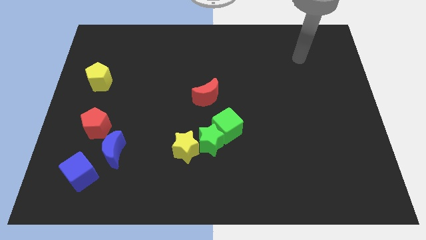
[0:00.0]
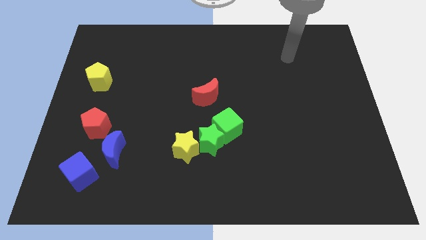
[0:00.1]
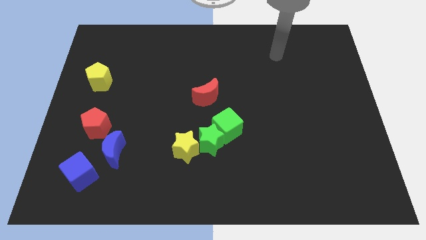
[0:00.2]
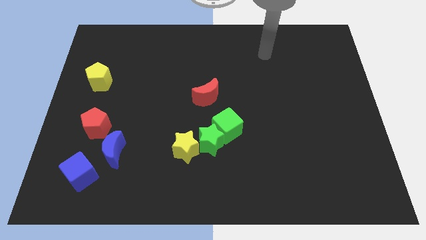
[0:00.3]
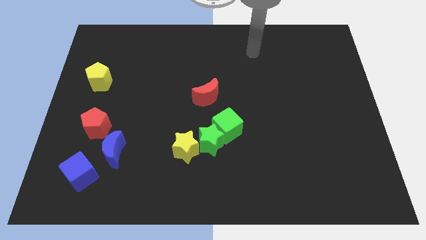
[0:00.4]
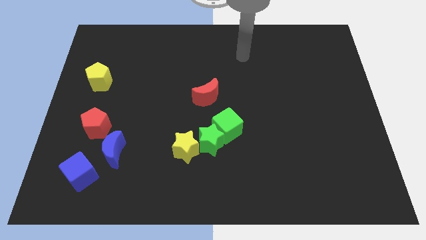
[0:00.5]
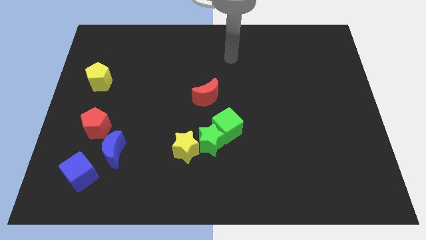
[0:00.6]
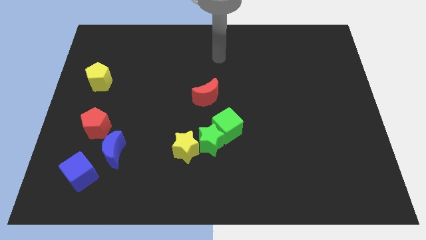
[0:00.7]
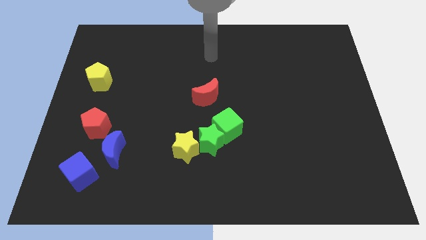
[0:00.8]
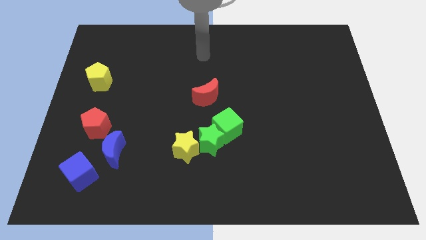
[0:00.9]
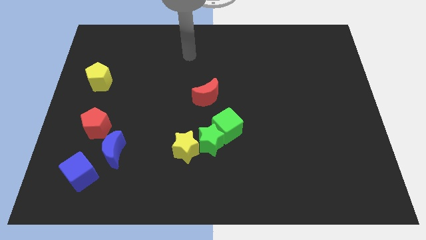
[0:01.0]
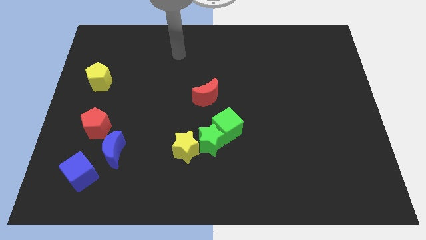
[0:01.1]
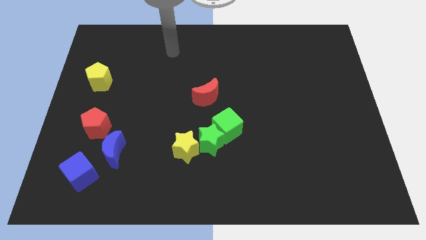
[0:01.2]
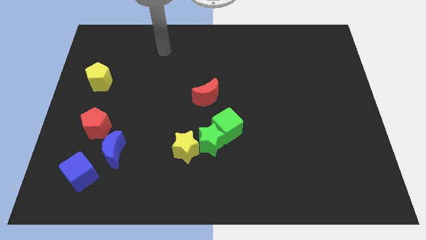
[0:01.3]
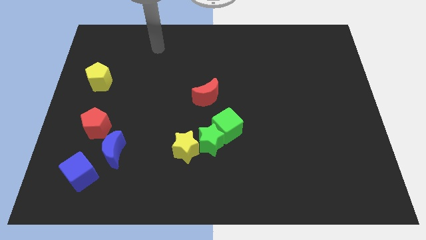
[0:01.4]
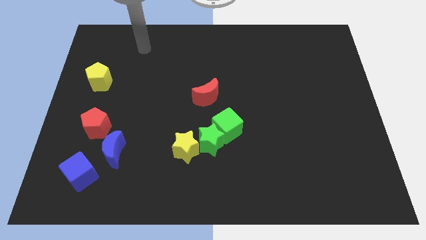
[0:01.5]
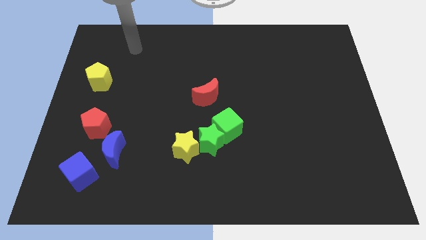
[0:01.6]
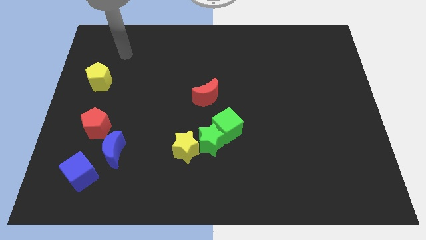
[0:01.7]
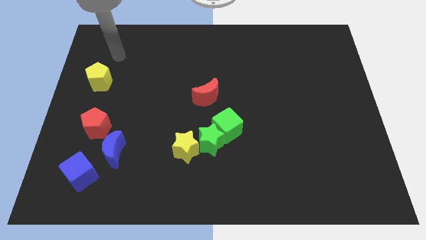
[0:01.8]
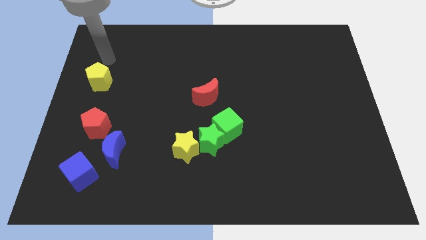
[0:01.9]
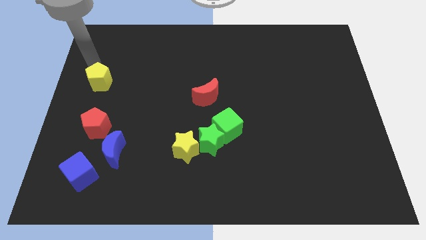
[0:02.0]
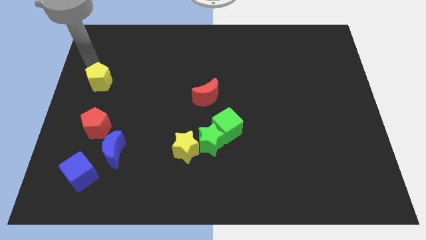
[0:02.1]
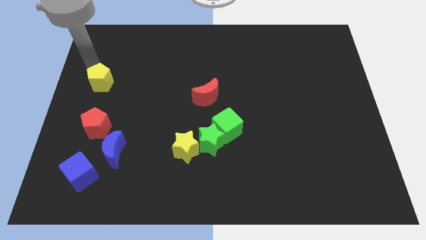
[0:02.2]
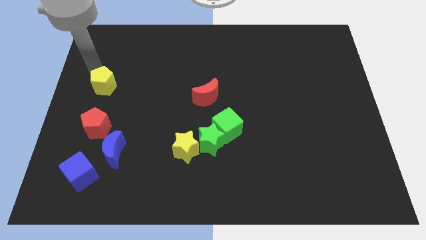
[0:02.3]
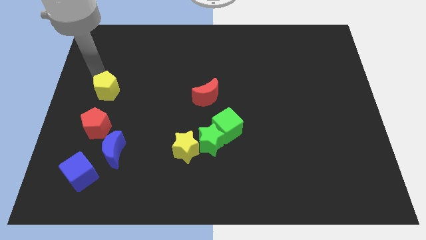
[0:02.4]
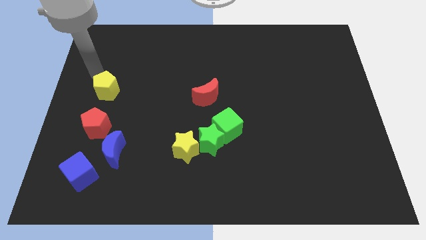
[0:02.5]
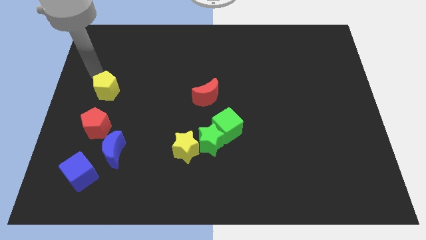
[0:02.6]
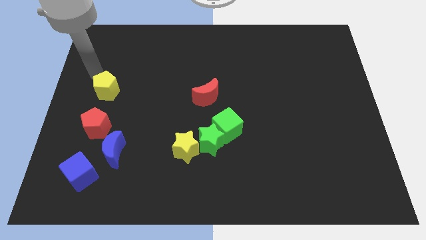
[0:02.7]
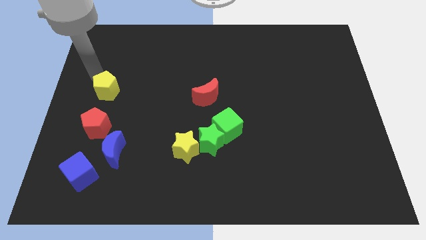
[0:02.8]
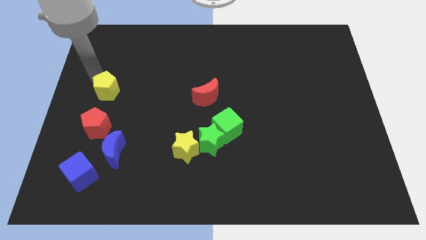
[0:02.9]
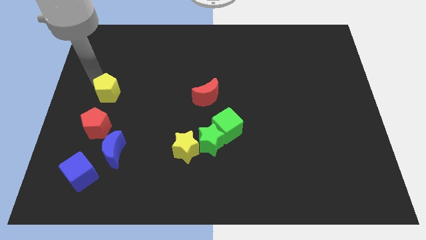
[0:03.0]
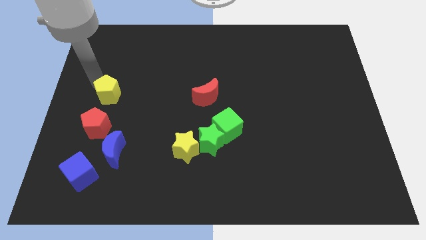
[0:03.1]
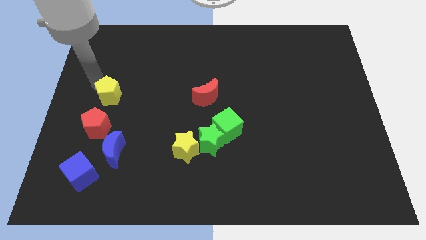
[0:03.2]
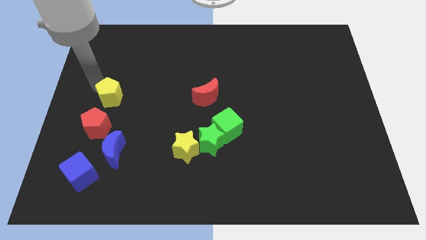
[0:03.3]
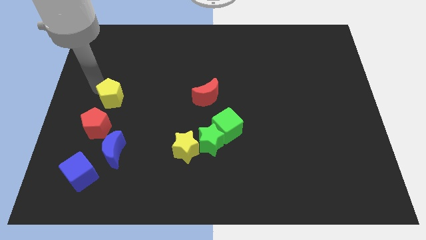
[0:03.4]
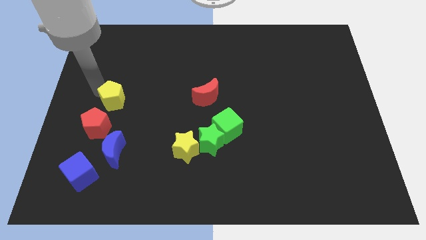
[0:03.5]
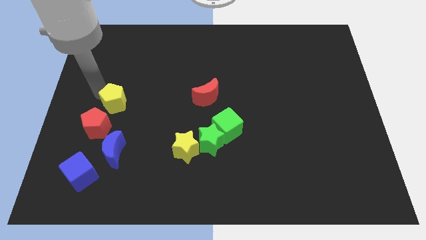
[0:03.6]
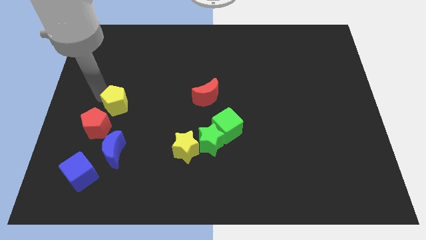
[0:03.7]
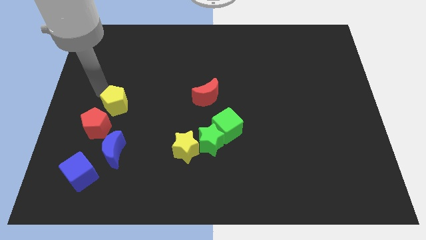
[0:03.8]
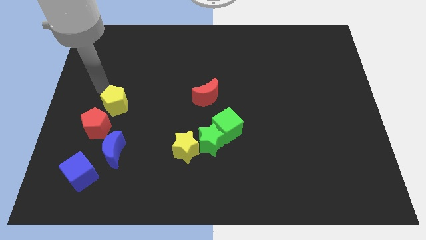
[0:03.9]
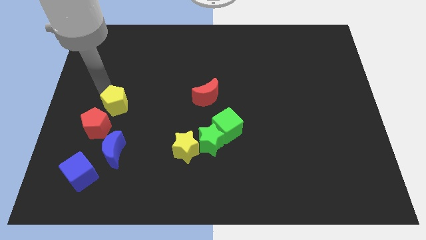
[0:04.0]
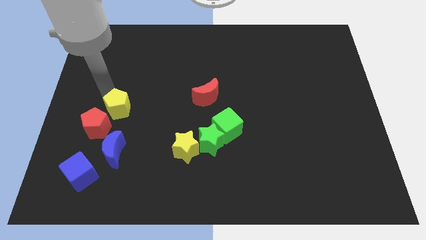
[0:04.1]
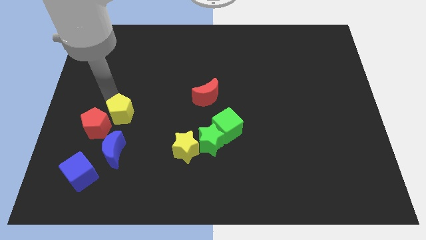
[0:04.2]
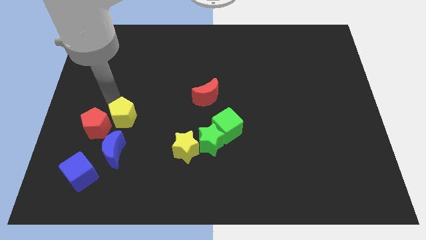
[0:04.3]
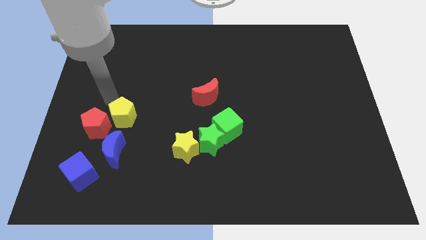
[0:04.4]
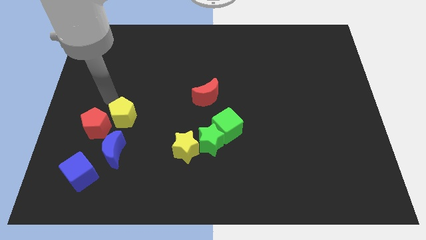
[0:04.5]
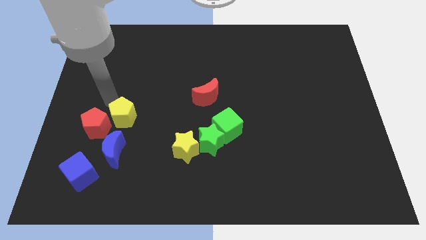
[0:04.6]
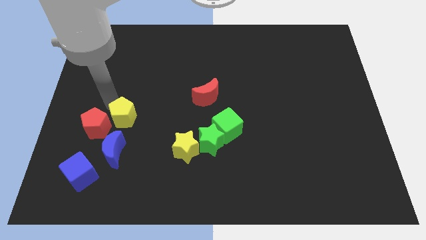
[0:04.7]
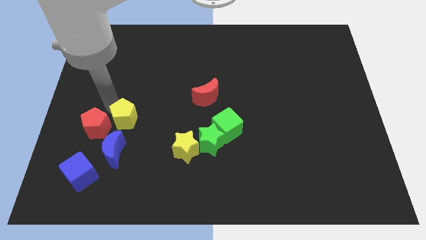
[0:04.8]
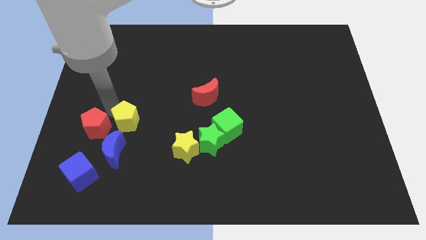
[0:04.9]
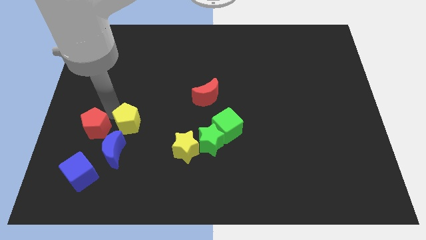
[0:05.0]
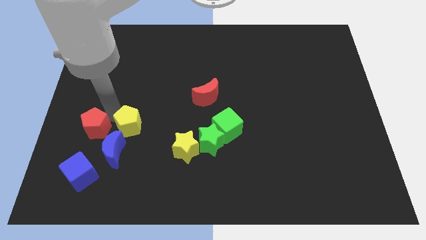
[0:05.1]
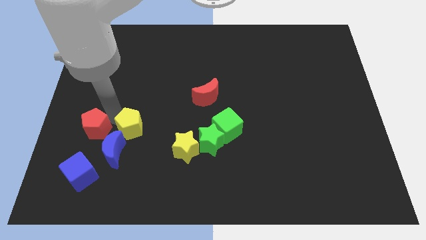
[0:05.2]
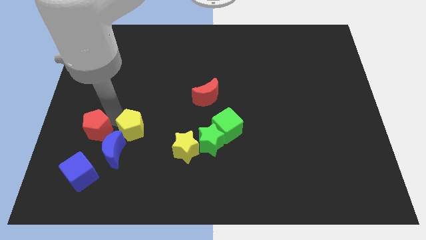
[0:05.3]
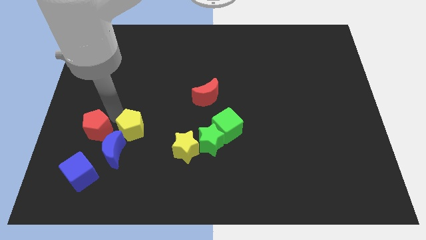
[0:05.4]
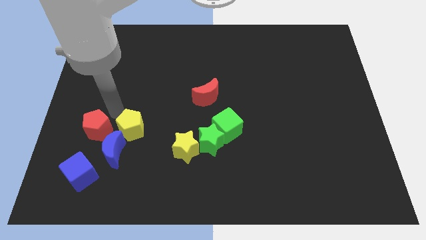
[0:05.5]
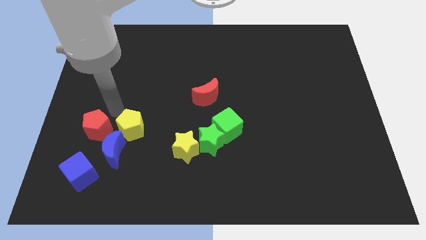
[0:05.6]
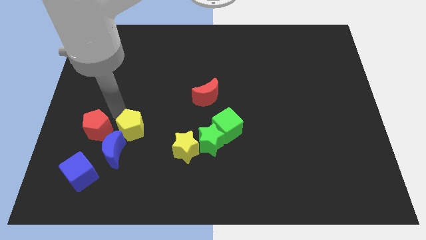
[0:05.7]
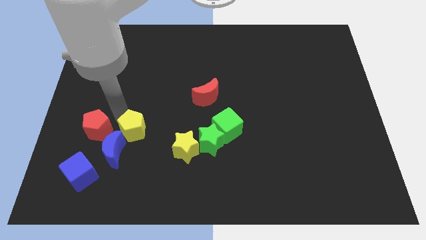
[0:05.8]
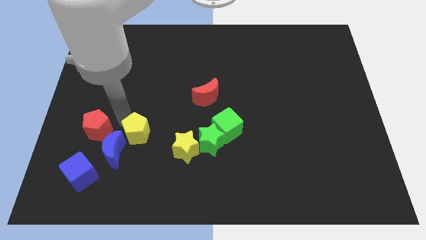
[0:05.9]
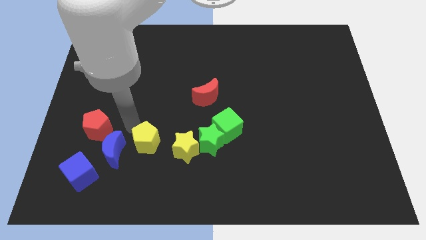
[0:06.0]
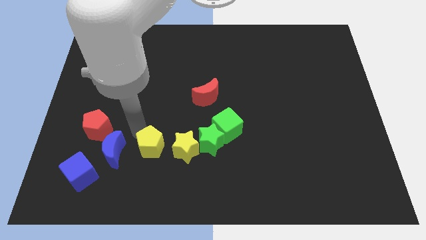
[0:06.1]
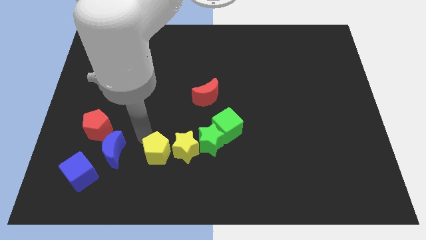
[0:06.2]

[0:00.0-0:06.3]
slide the yellow pentagon to the bottom left of the yellow star
